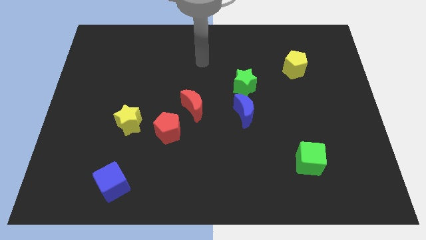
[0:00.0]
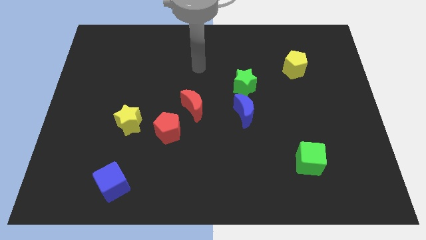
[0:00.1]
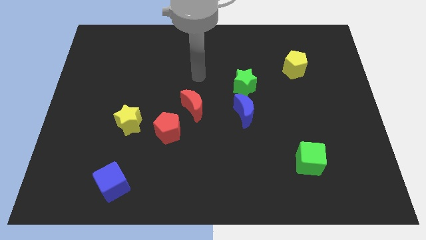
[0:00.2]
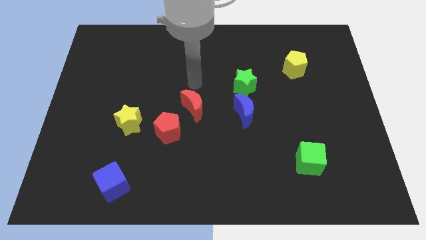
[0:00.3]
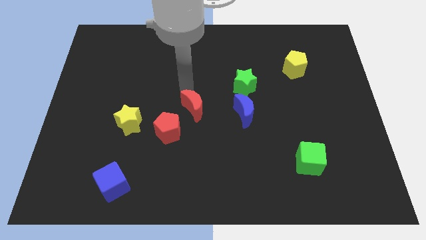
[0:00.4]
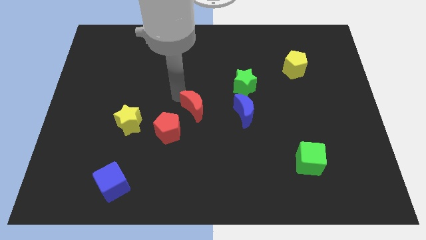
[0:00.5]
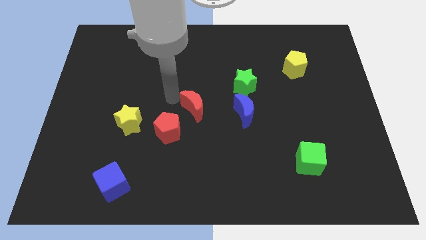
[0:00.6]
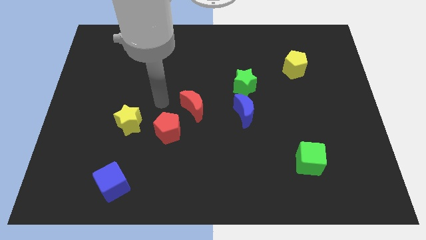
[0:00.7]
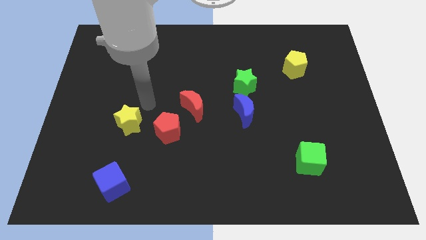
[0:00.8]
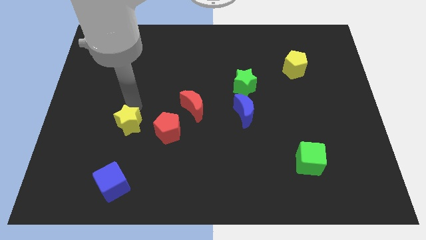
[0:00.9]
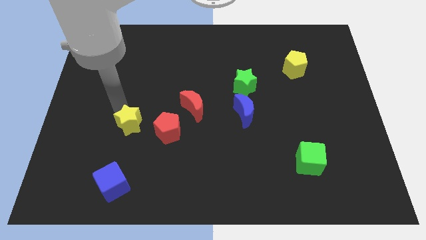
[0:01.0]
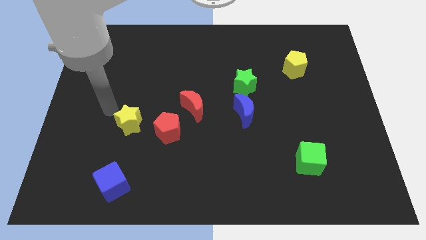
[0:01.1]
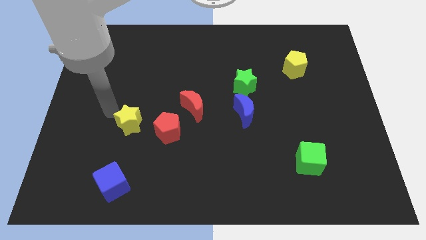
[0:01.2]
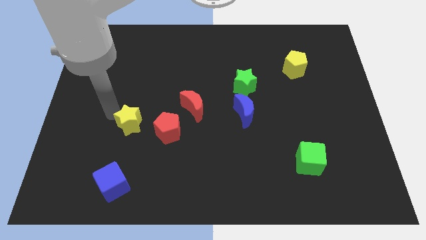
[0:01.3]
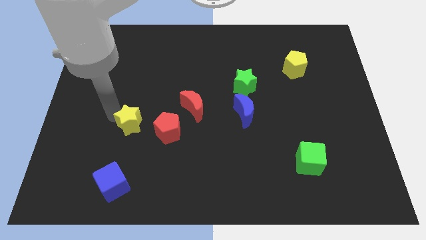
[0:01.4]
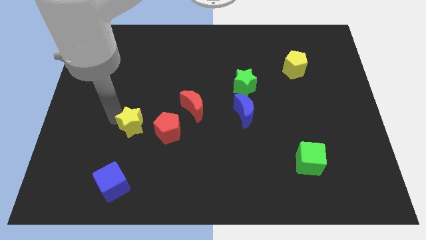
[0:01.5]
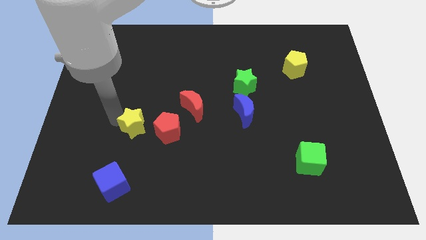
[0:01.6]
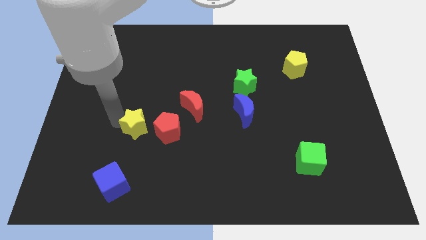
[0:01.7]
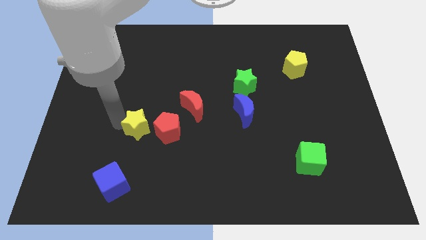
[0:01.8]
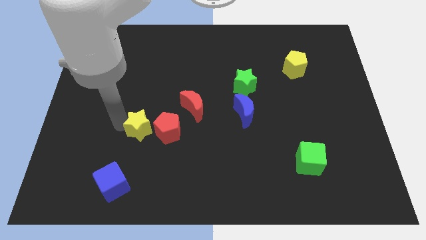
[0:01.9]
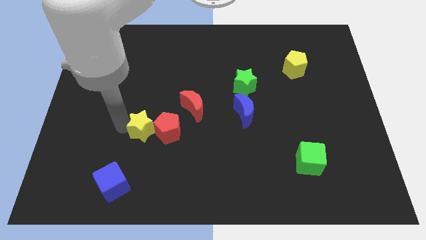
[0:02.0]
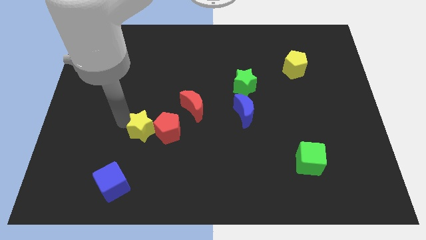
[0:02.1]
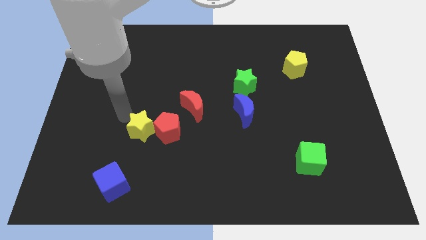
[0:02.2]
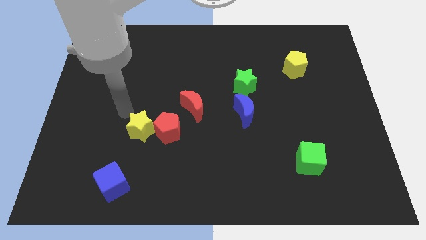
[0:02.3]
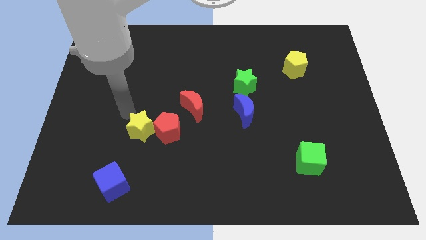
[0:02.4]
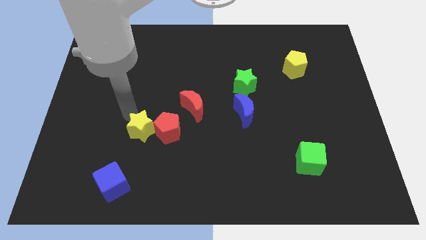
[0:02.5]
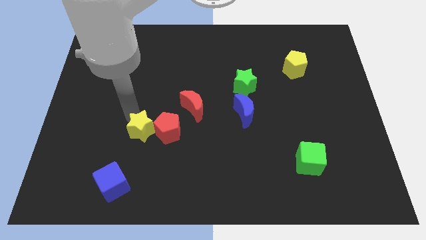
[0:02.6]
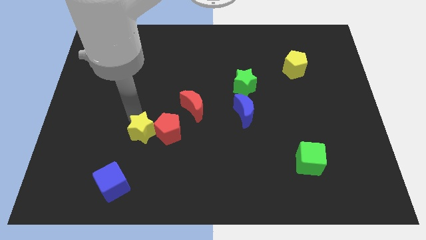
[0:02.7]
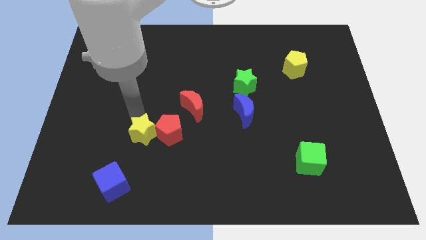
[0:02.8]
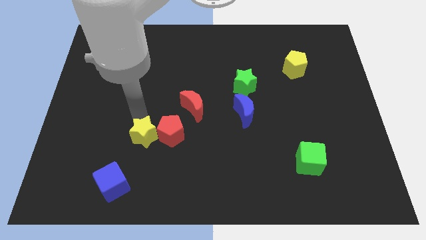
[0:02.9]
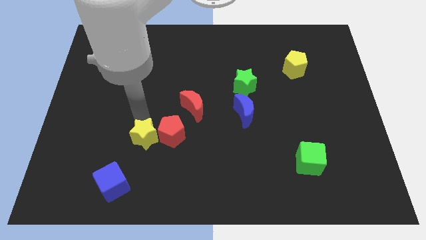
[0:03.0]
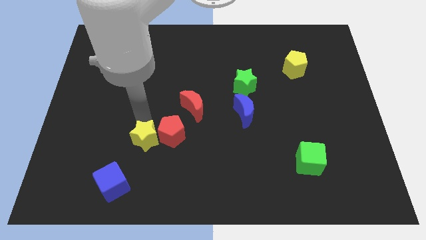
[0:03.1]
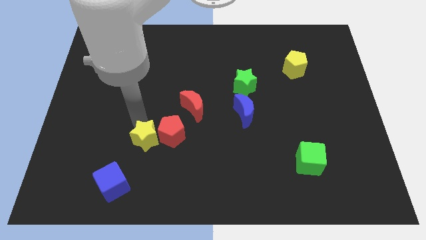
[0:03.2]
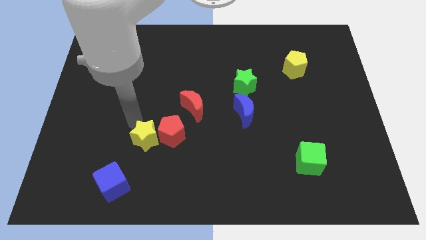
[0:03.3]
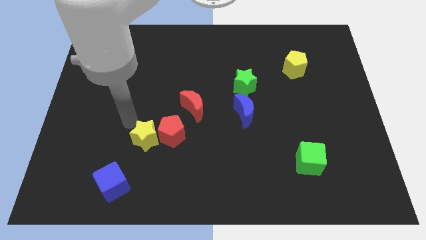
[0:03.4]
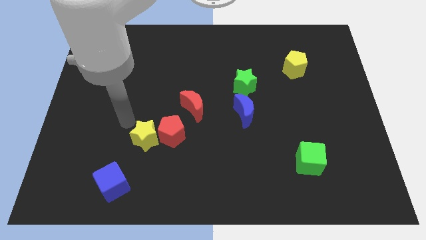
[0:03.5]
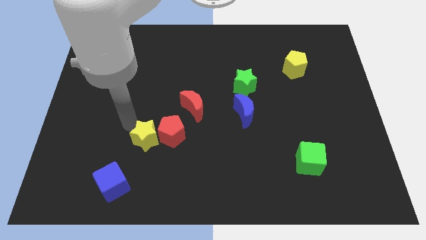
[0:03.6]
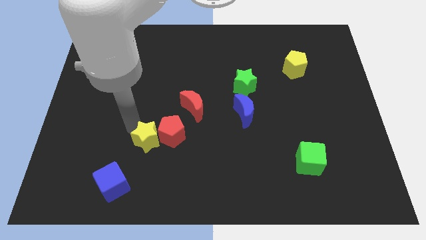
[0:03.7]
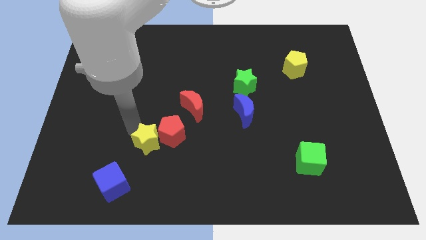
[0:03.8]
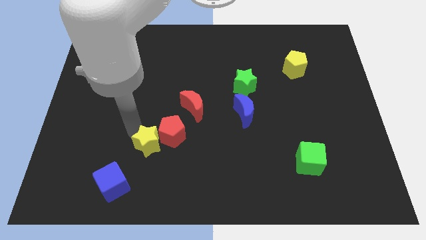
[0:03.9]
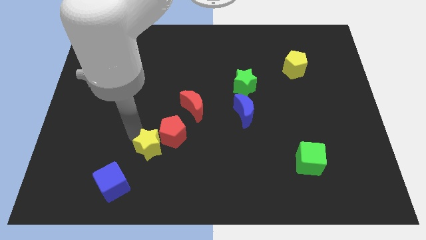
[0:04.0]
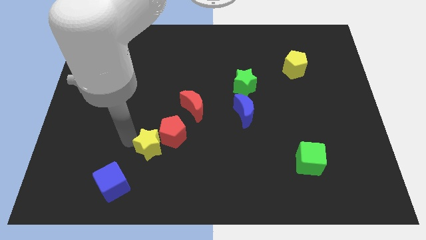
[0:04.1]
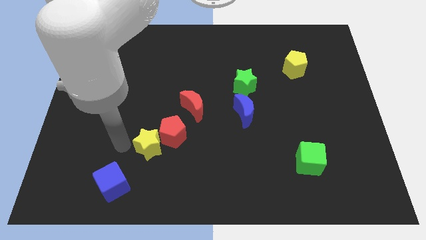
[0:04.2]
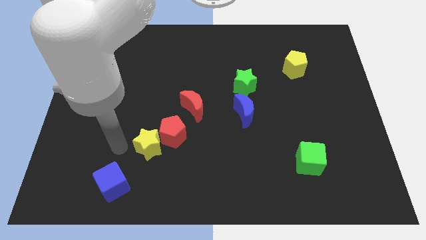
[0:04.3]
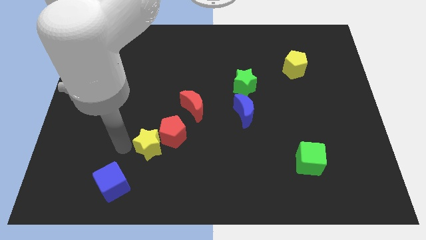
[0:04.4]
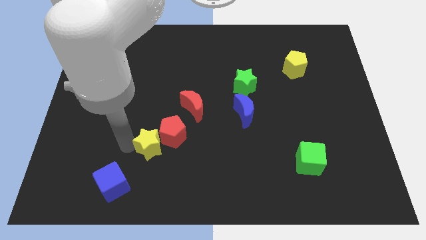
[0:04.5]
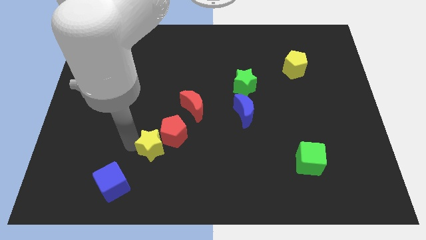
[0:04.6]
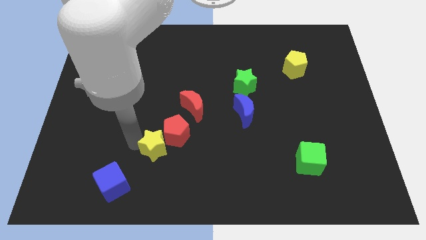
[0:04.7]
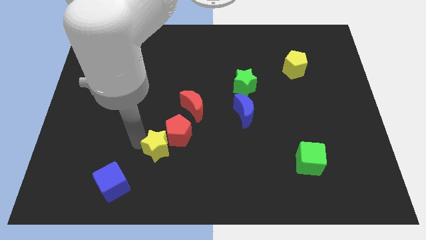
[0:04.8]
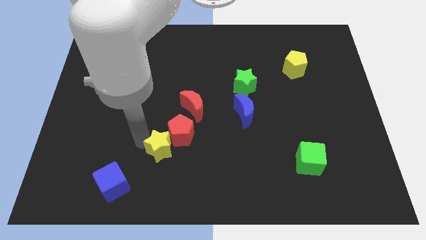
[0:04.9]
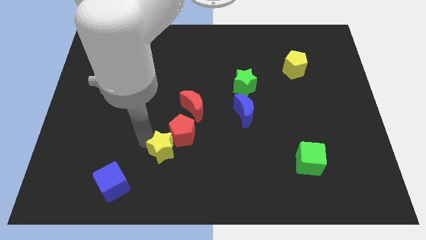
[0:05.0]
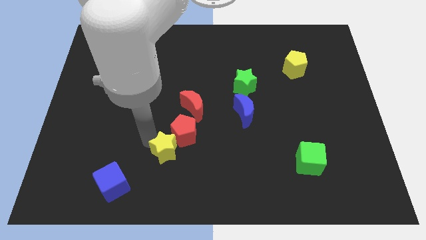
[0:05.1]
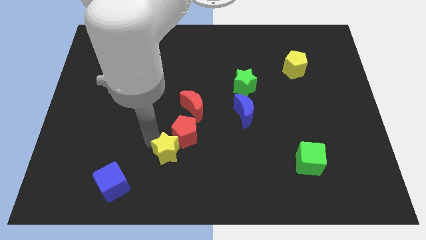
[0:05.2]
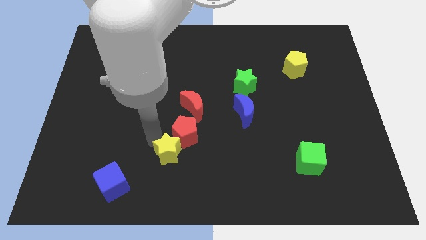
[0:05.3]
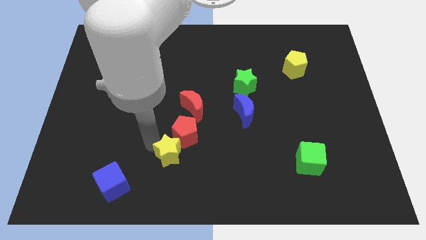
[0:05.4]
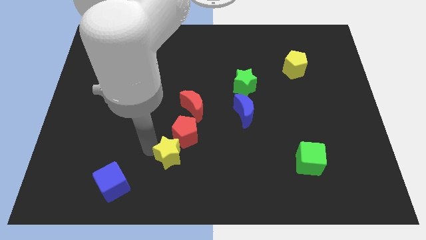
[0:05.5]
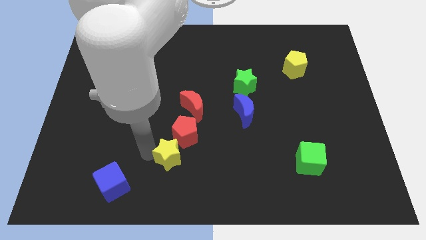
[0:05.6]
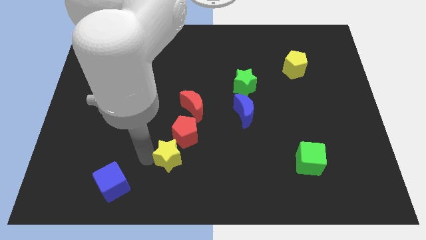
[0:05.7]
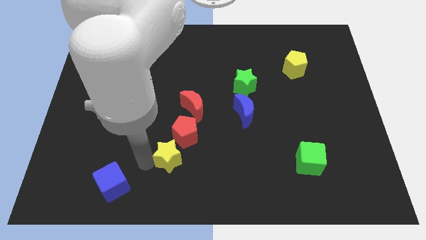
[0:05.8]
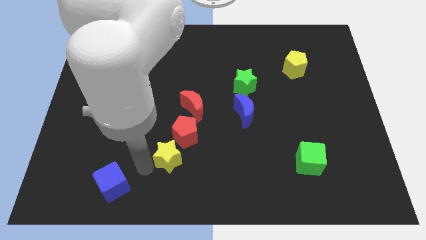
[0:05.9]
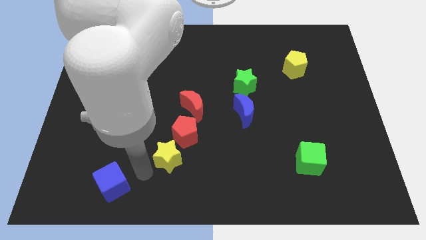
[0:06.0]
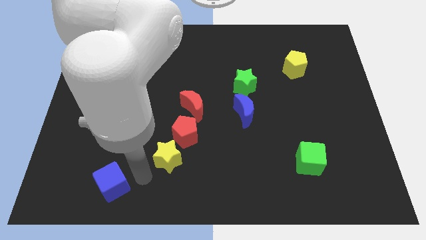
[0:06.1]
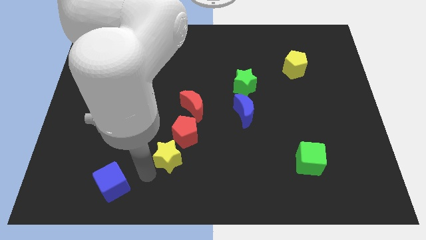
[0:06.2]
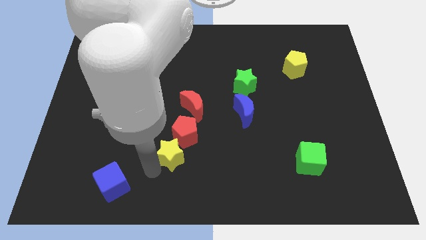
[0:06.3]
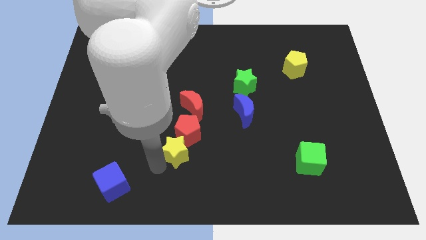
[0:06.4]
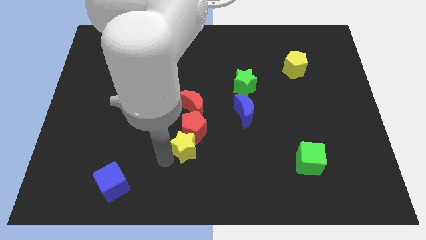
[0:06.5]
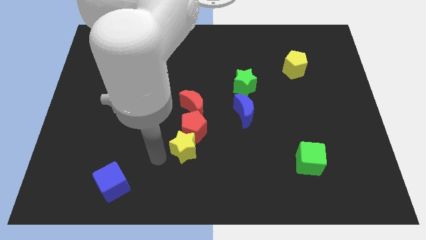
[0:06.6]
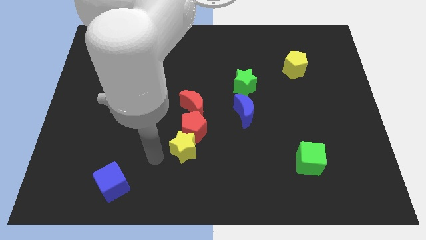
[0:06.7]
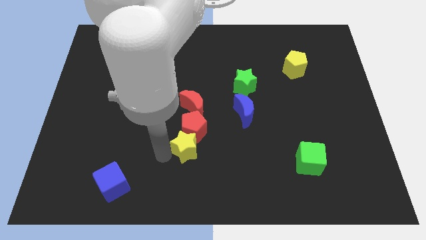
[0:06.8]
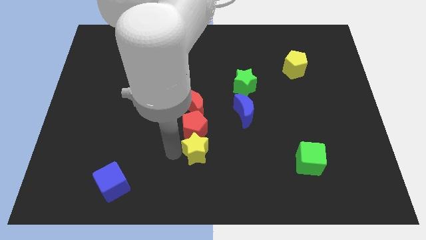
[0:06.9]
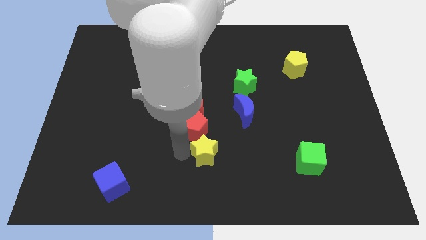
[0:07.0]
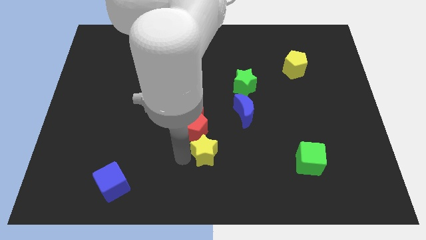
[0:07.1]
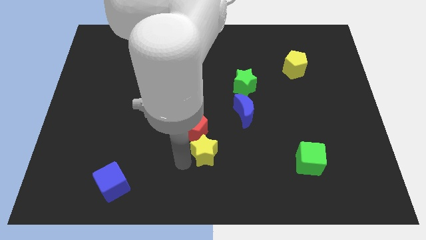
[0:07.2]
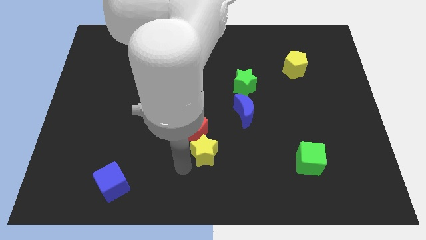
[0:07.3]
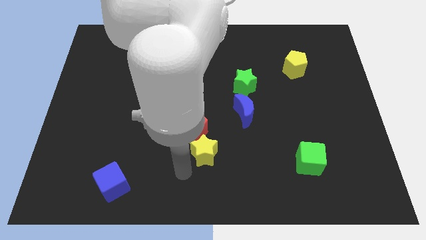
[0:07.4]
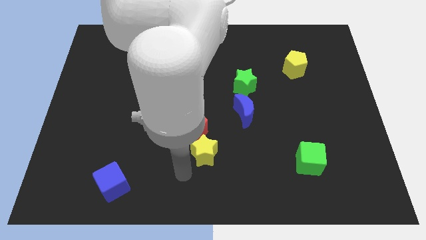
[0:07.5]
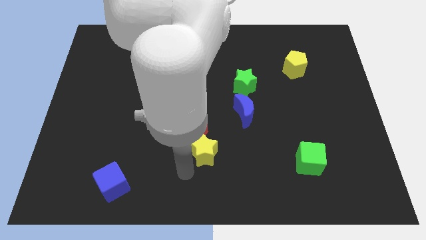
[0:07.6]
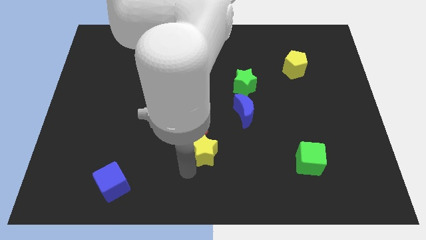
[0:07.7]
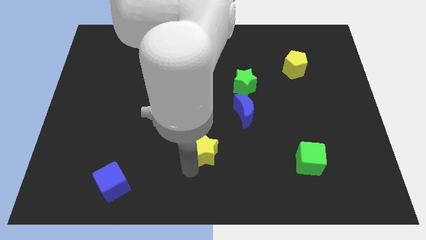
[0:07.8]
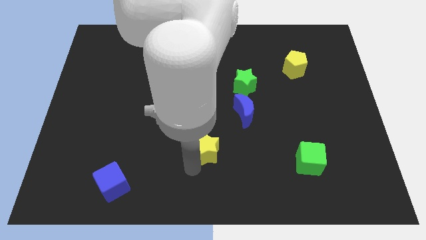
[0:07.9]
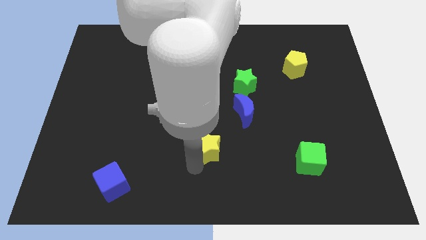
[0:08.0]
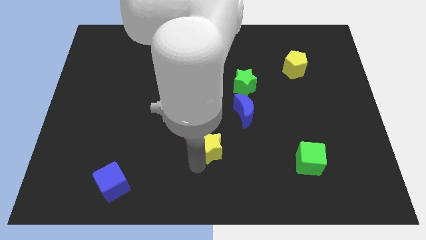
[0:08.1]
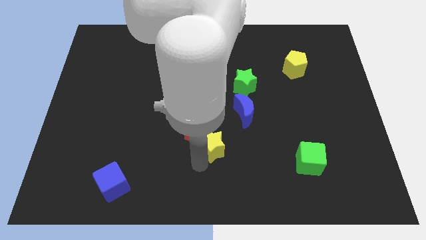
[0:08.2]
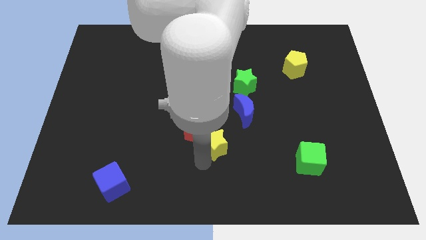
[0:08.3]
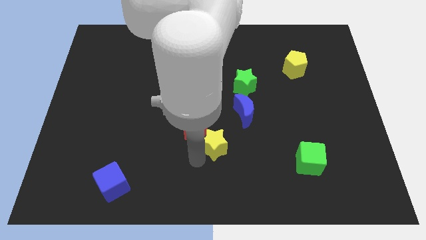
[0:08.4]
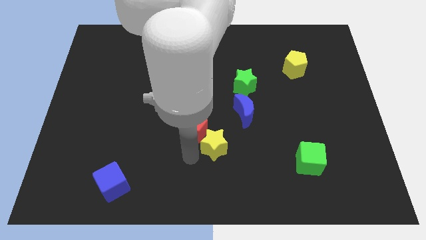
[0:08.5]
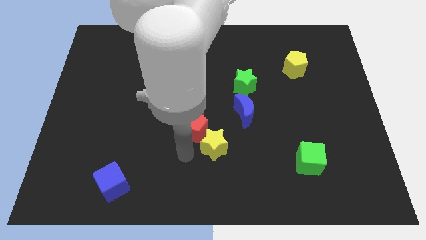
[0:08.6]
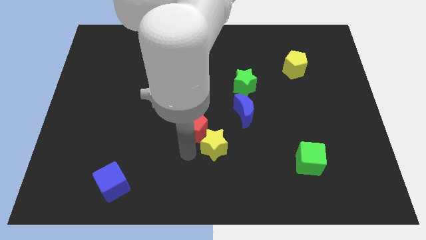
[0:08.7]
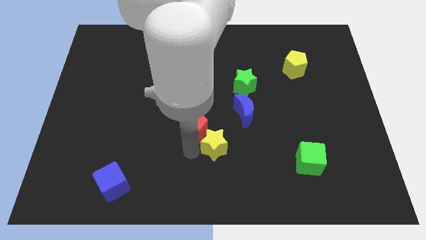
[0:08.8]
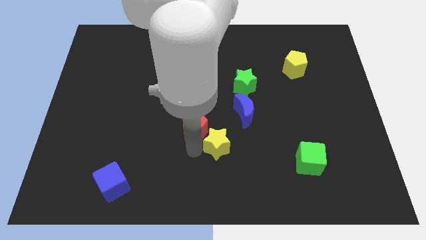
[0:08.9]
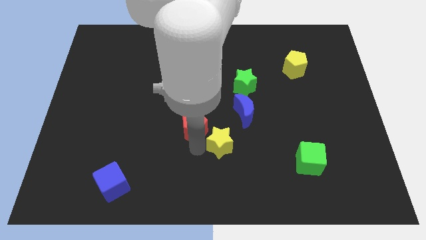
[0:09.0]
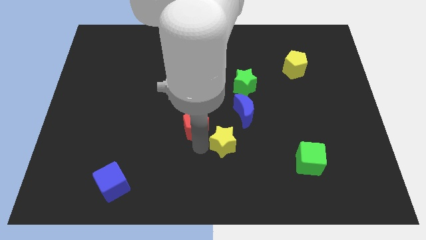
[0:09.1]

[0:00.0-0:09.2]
move the yellow star right
